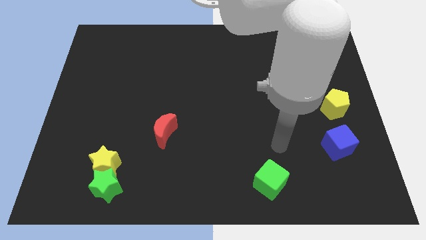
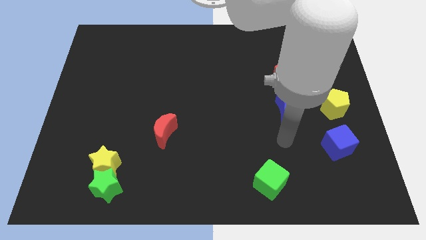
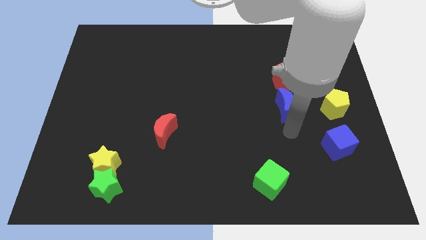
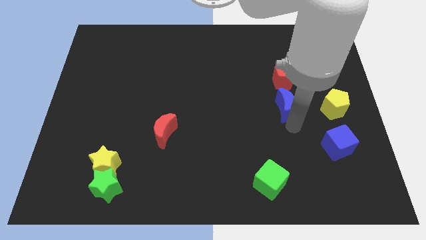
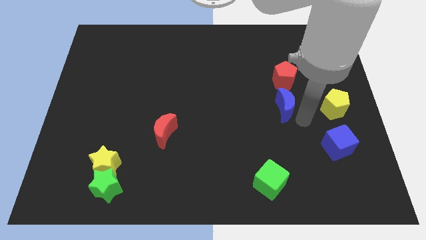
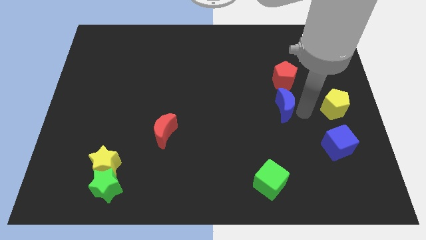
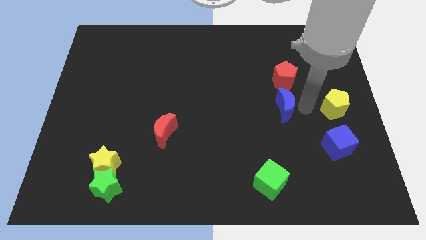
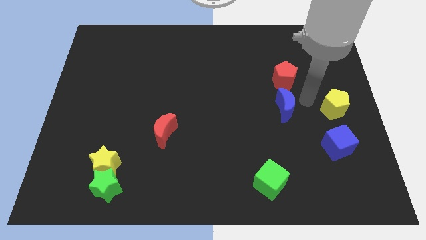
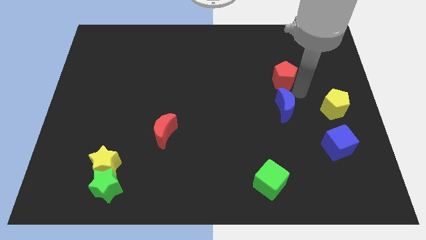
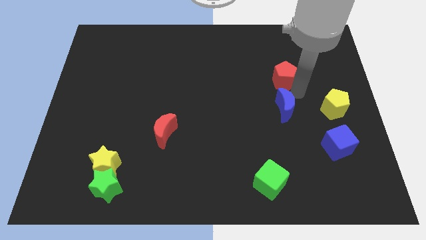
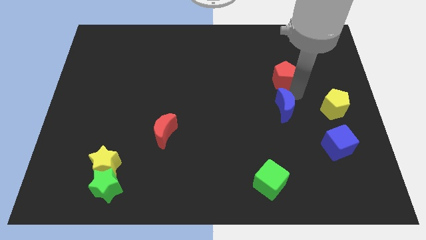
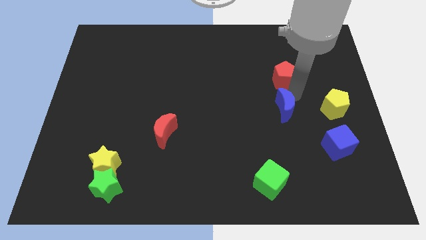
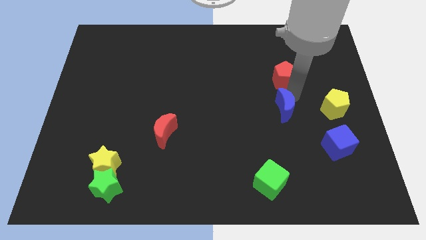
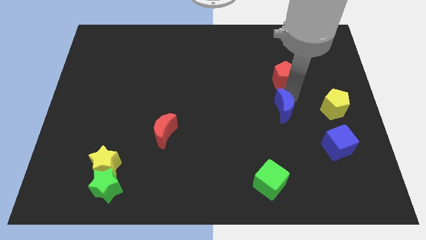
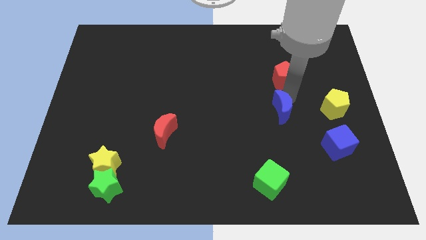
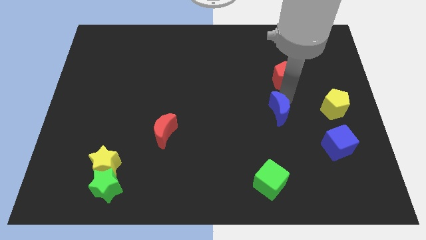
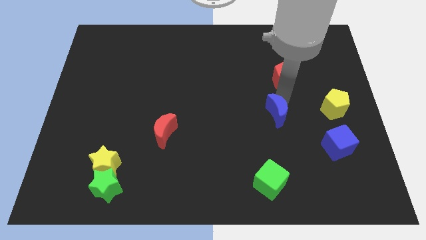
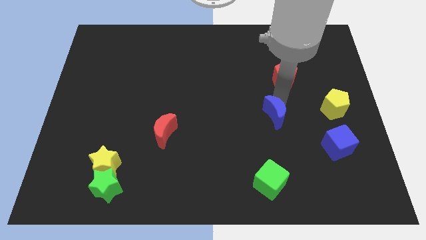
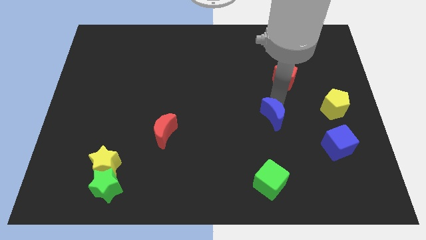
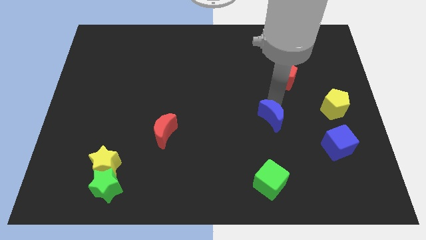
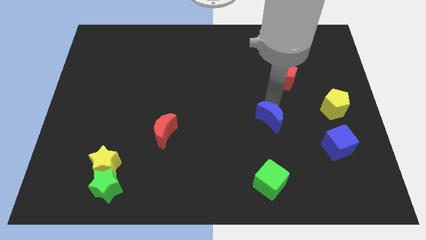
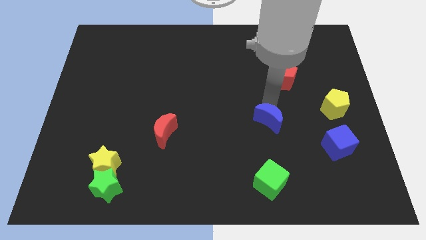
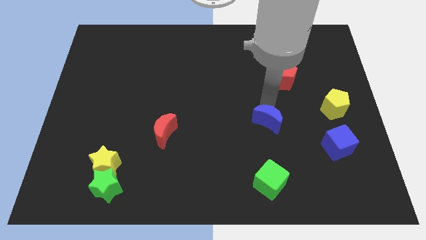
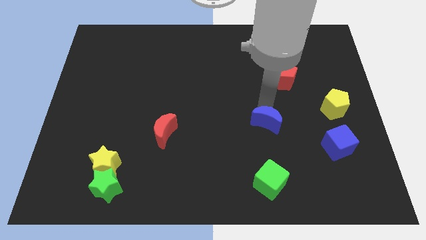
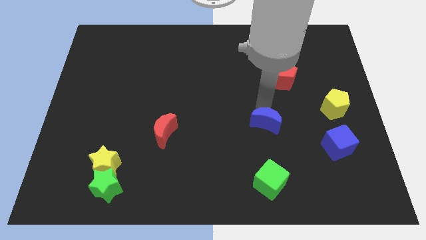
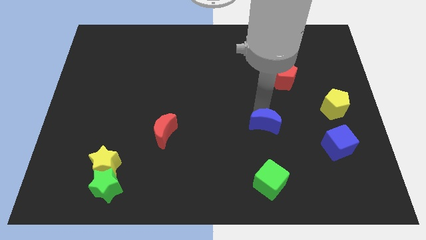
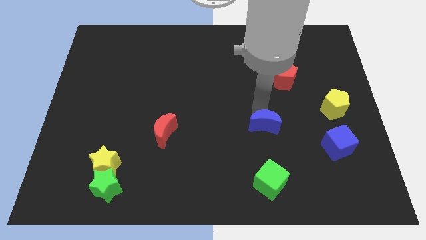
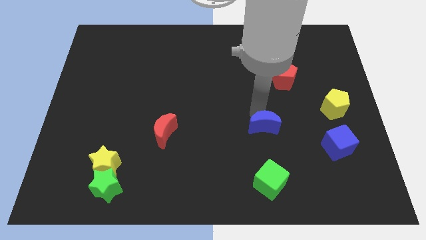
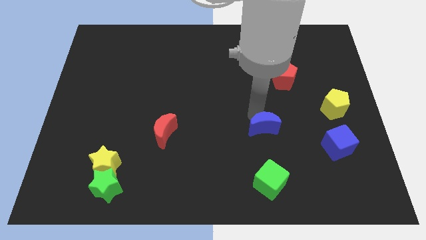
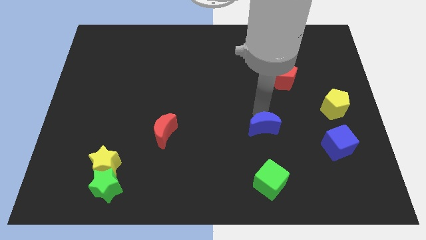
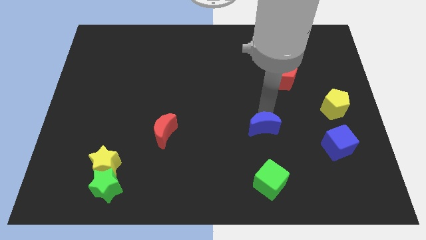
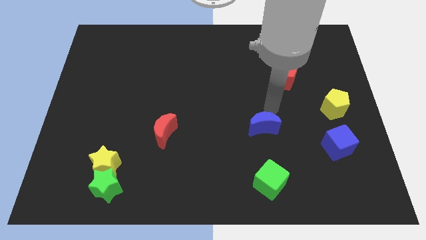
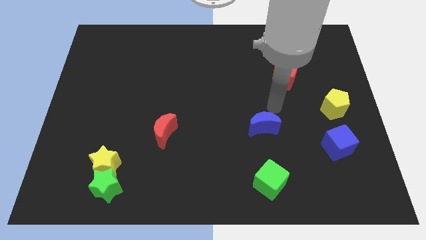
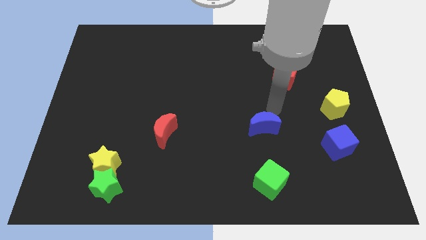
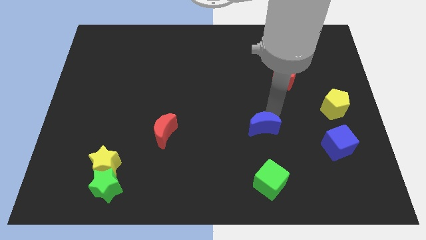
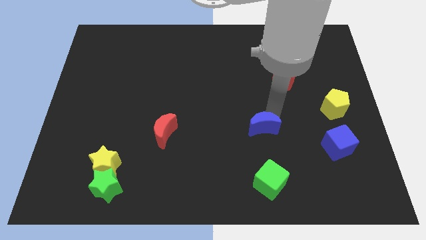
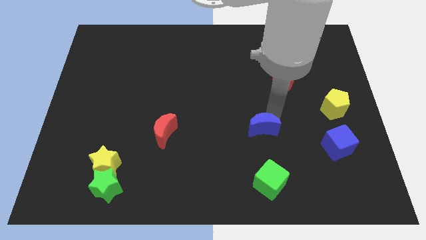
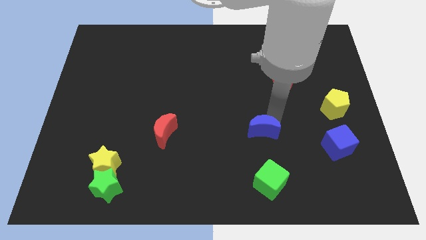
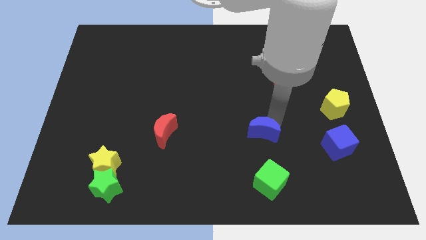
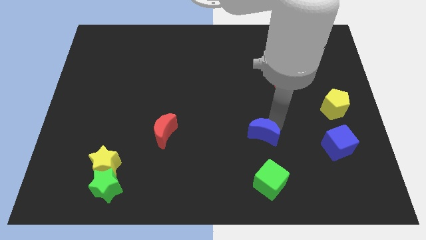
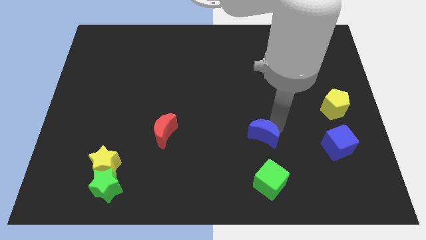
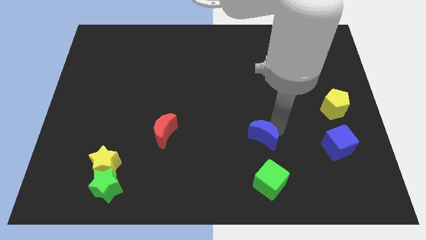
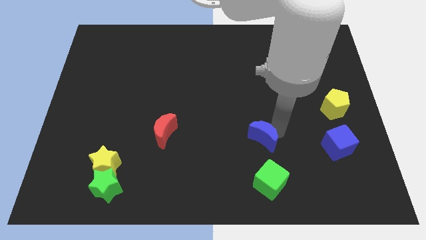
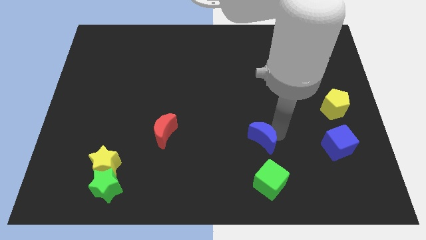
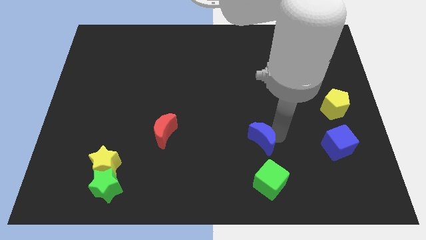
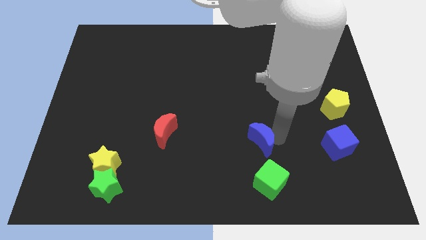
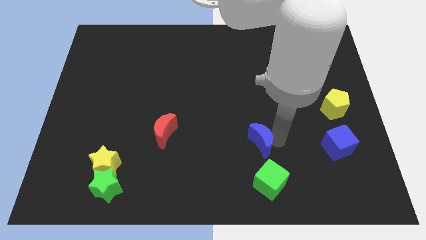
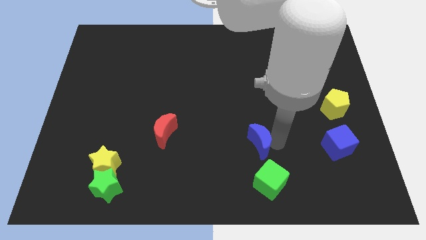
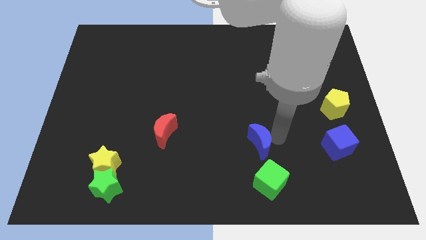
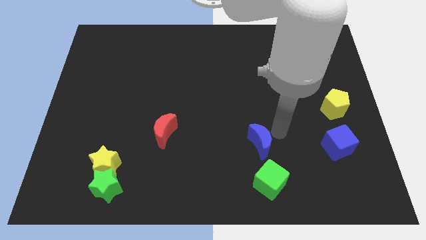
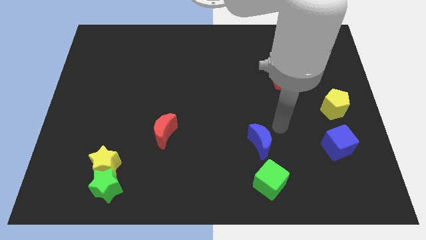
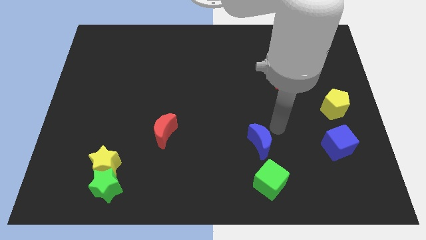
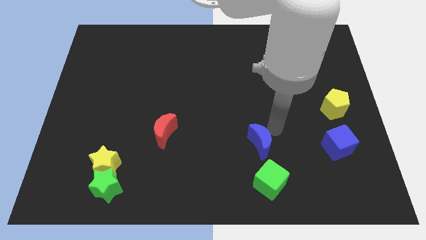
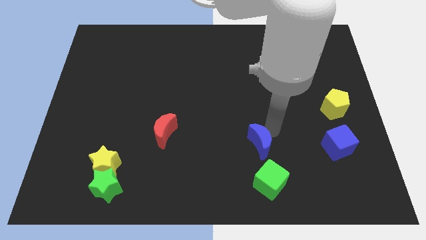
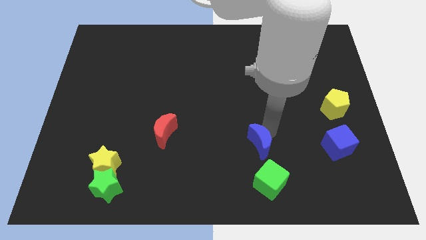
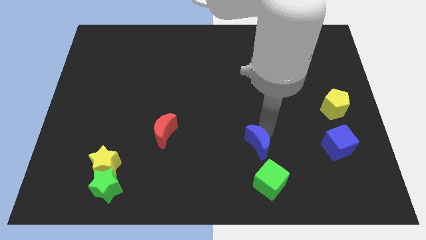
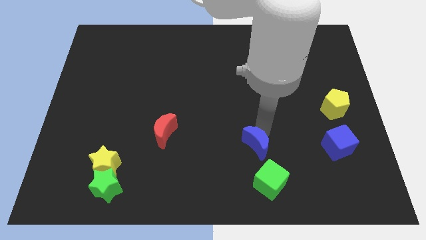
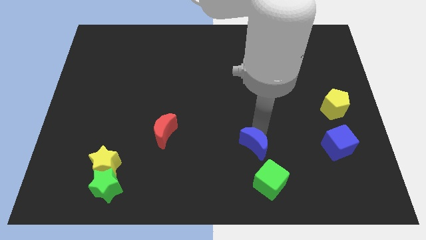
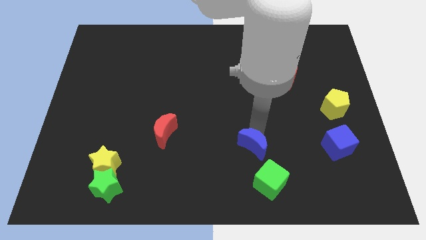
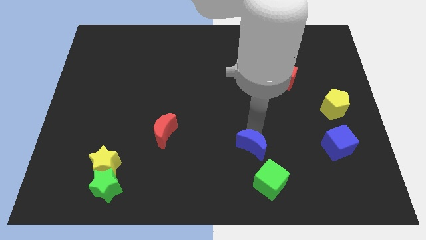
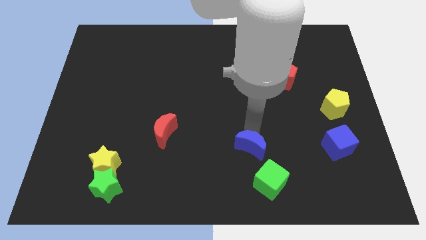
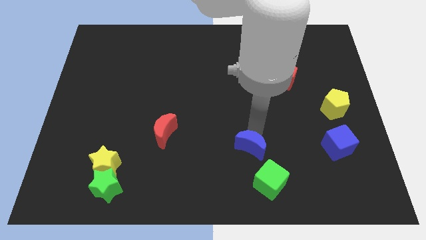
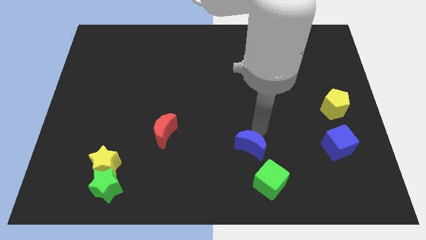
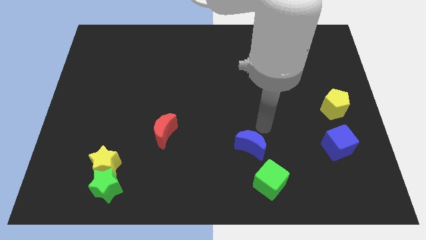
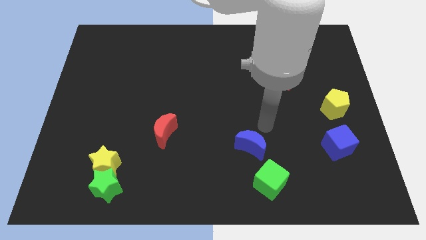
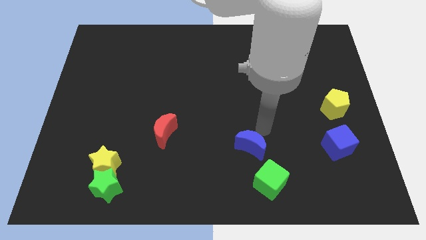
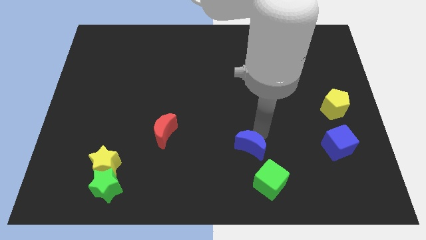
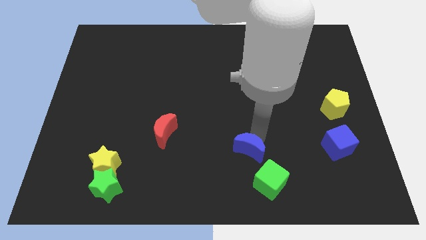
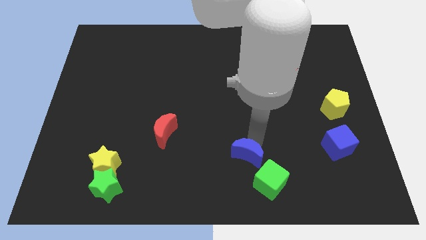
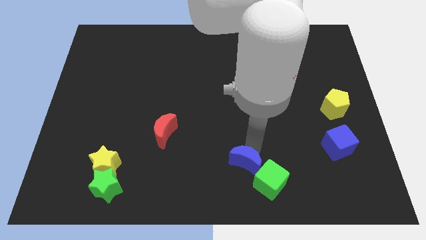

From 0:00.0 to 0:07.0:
push the blue moon left of the green cube

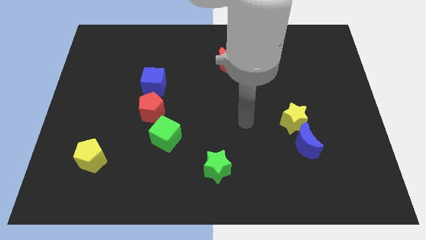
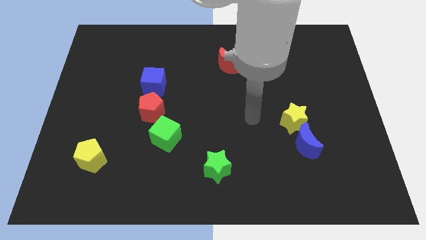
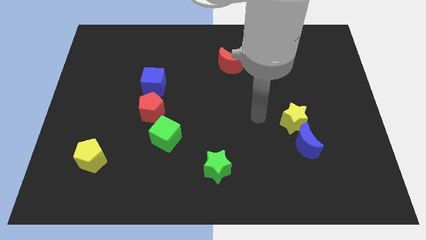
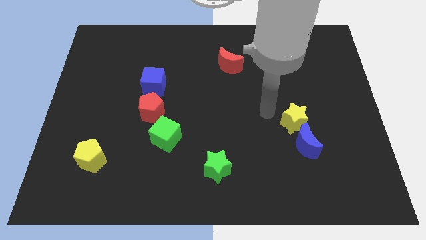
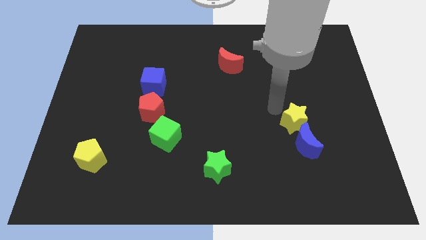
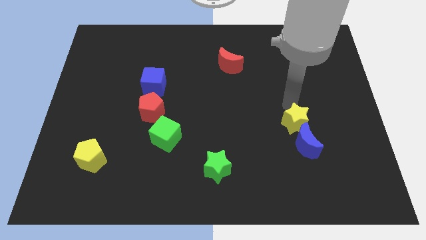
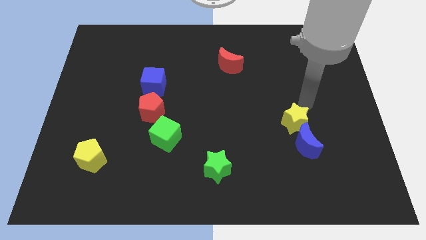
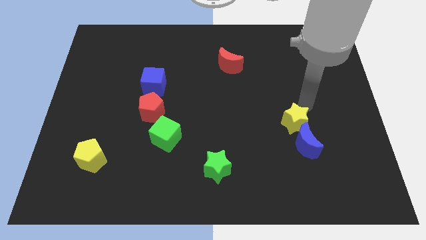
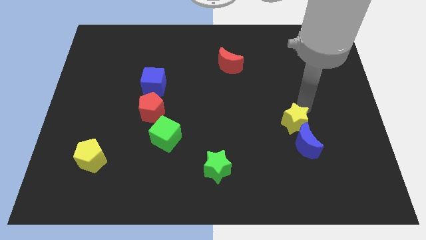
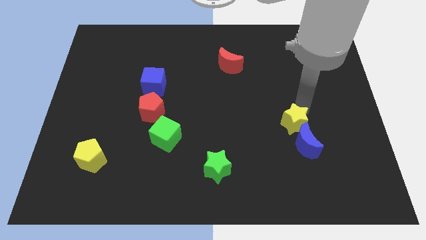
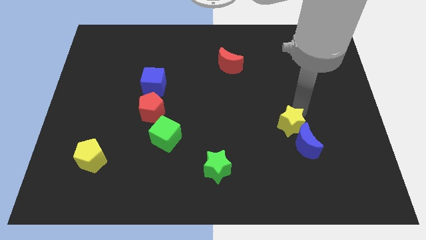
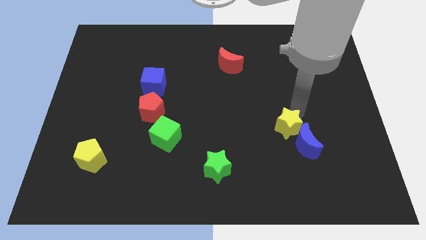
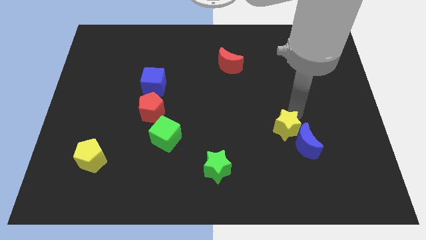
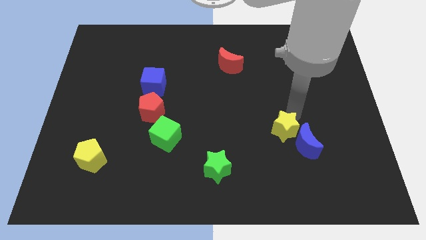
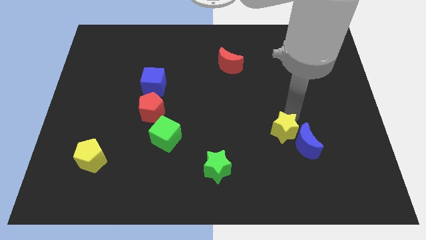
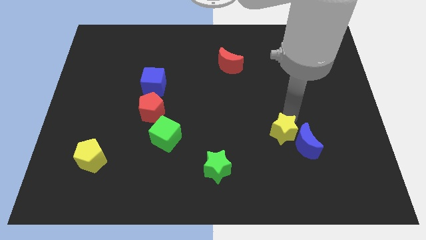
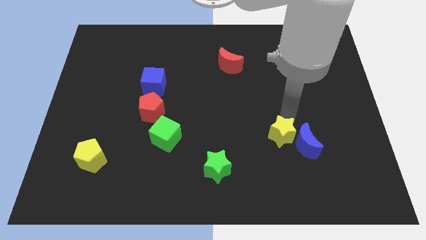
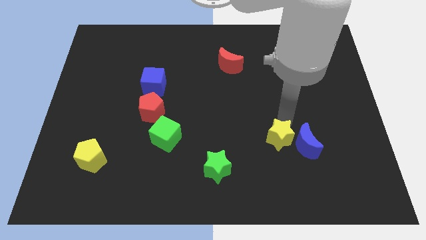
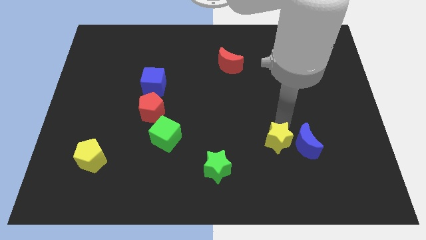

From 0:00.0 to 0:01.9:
slide the yellow star to the bottom left side of the blue moon
